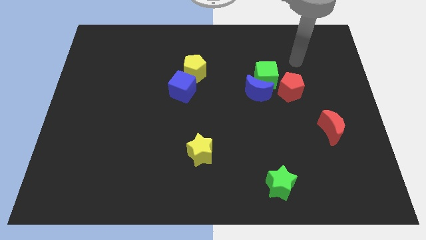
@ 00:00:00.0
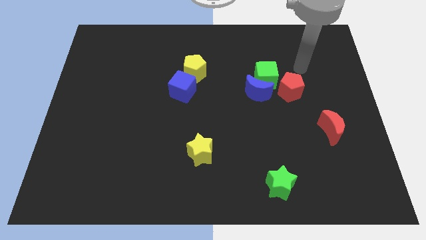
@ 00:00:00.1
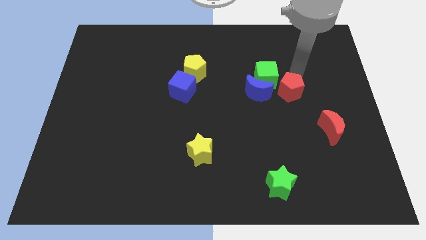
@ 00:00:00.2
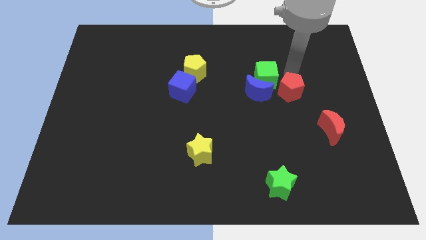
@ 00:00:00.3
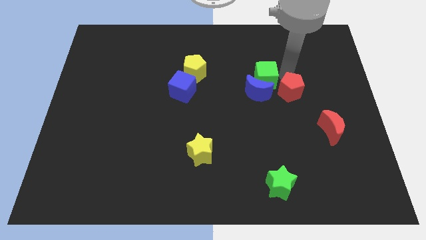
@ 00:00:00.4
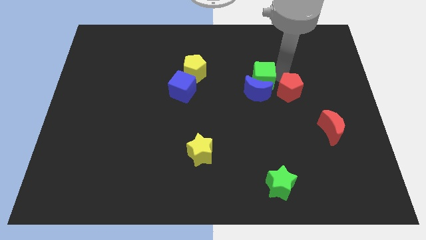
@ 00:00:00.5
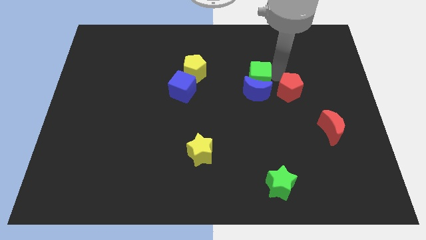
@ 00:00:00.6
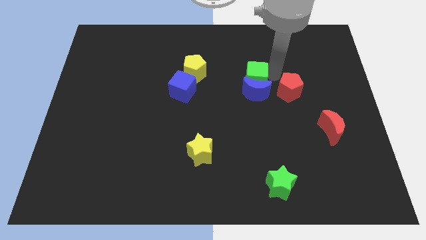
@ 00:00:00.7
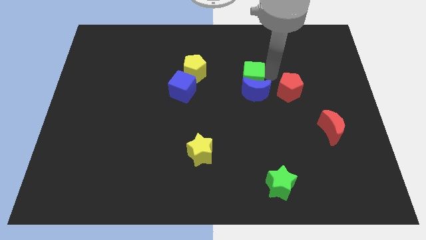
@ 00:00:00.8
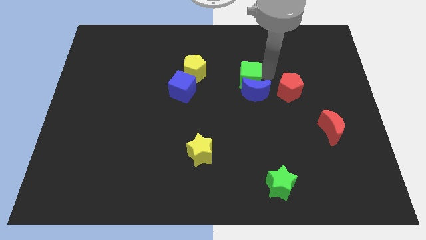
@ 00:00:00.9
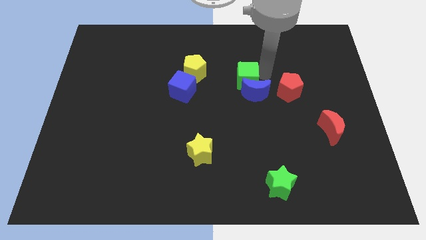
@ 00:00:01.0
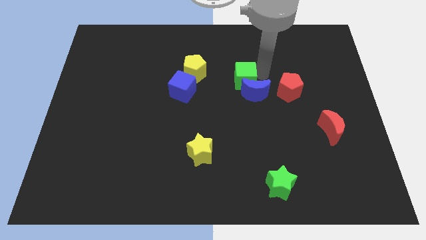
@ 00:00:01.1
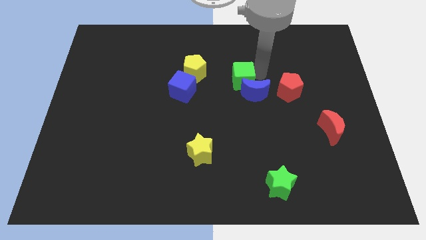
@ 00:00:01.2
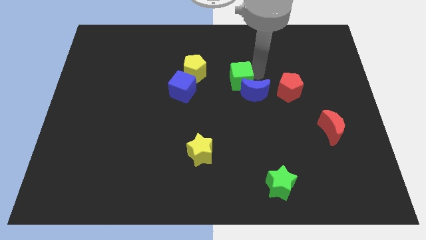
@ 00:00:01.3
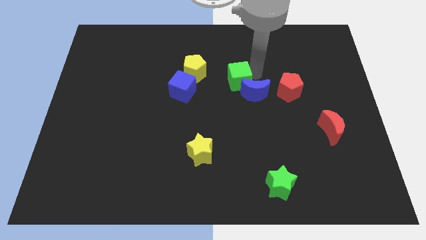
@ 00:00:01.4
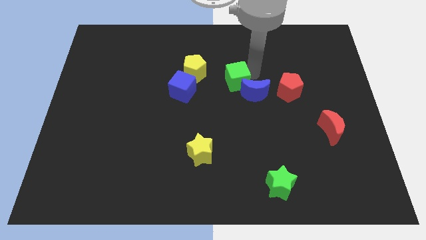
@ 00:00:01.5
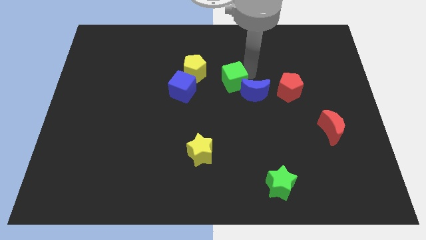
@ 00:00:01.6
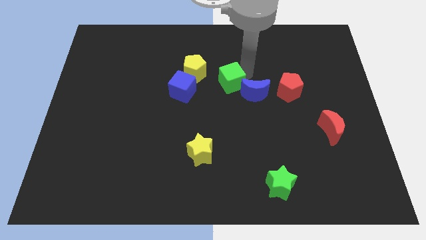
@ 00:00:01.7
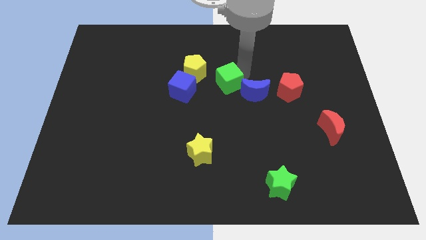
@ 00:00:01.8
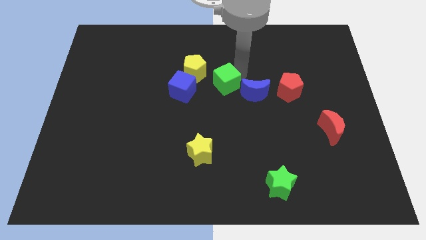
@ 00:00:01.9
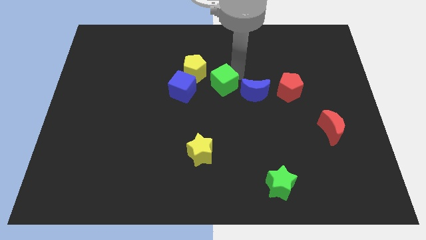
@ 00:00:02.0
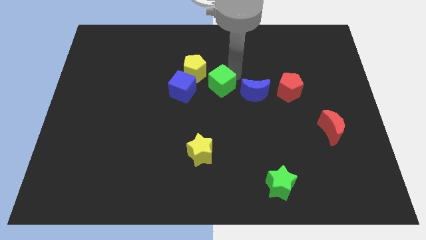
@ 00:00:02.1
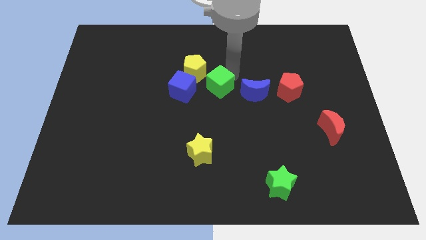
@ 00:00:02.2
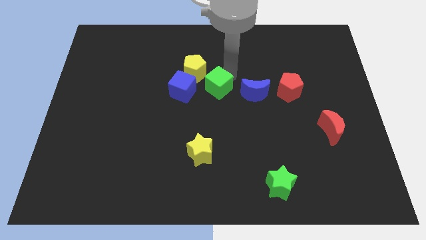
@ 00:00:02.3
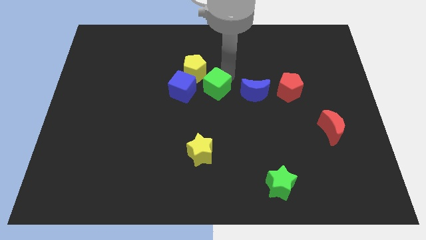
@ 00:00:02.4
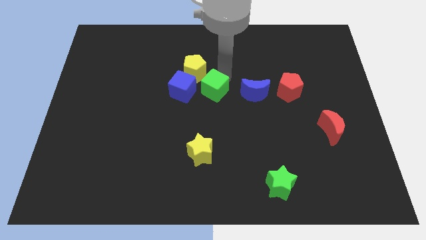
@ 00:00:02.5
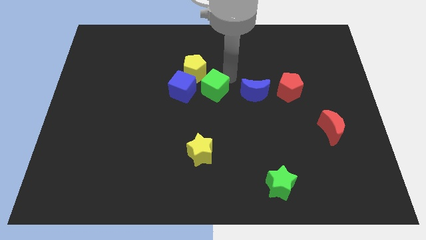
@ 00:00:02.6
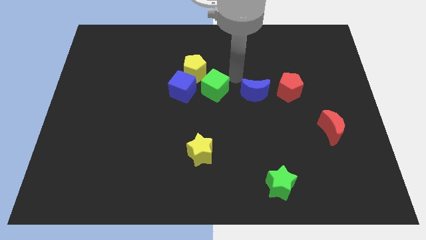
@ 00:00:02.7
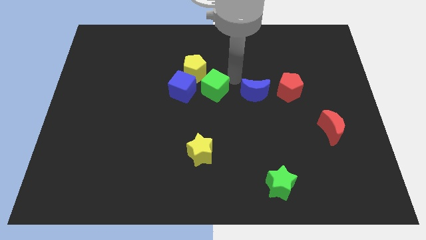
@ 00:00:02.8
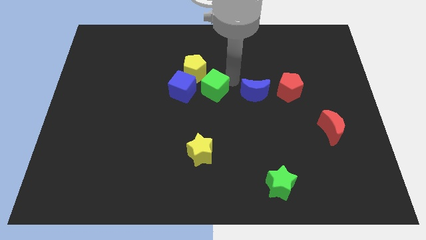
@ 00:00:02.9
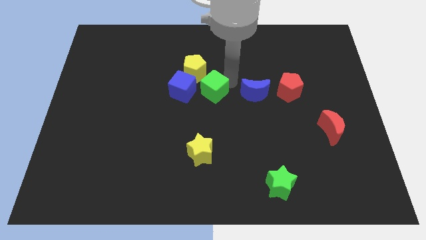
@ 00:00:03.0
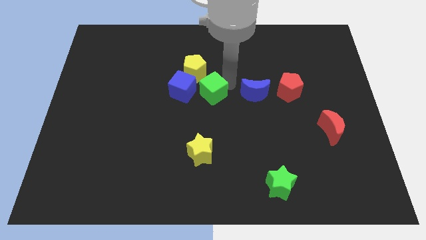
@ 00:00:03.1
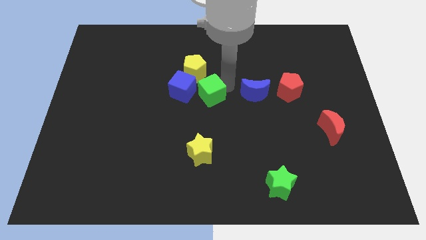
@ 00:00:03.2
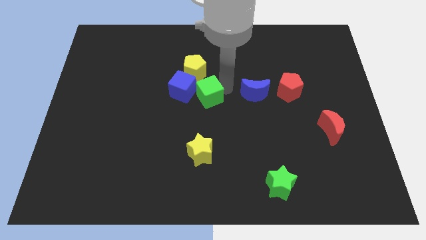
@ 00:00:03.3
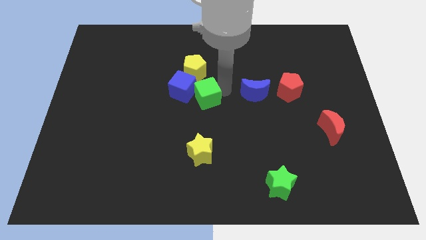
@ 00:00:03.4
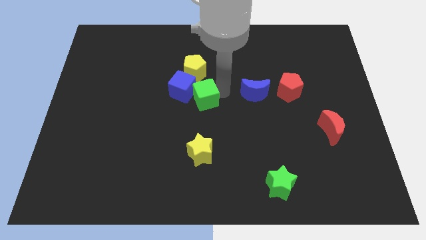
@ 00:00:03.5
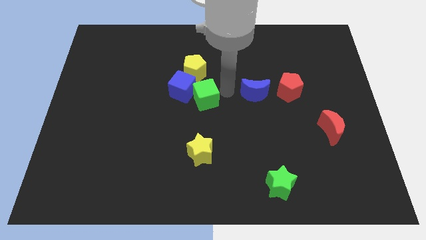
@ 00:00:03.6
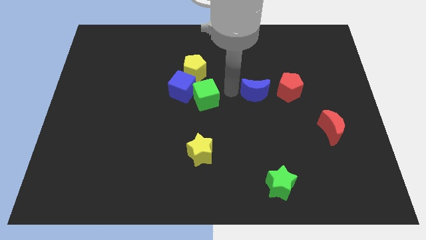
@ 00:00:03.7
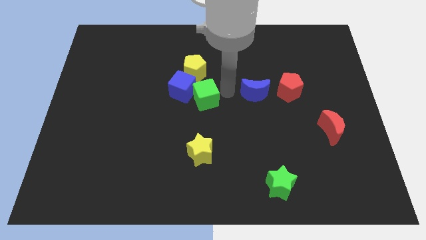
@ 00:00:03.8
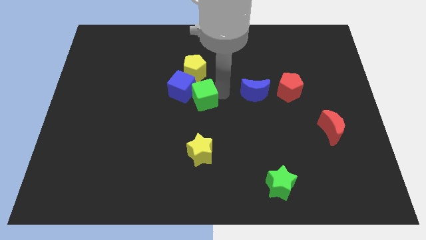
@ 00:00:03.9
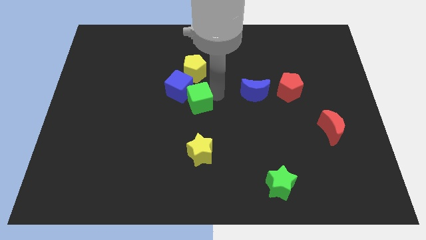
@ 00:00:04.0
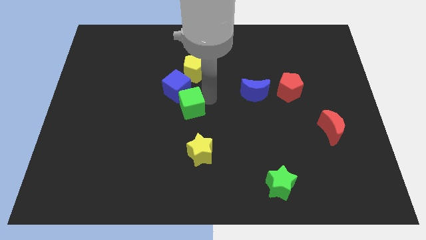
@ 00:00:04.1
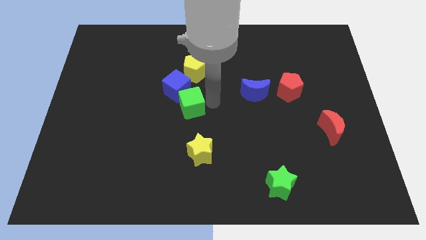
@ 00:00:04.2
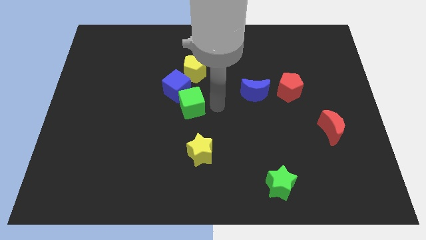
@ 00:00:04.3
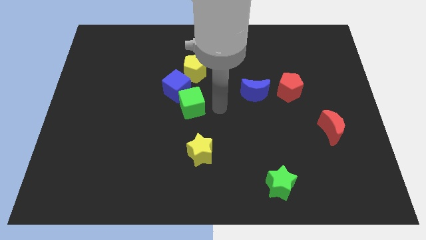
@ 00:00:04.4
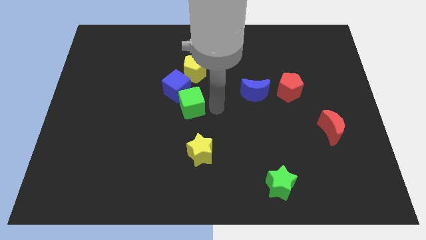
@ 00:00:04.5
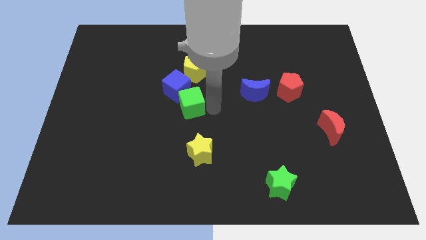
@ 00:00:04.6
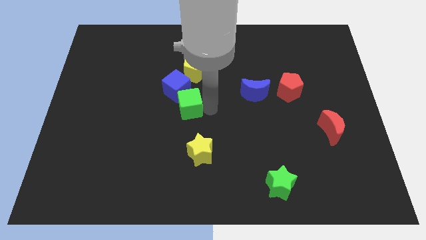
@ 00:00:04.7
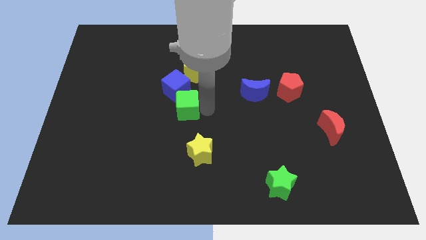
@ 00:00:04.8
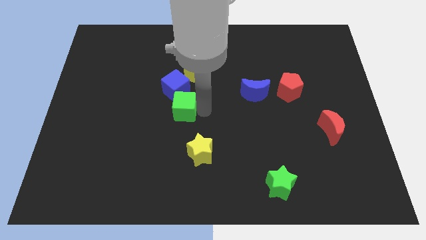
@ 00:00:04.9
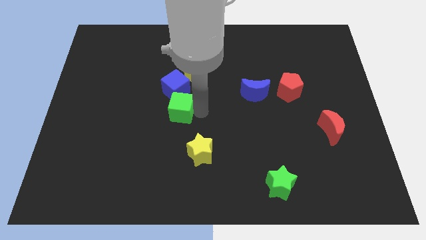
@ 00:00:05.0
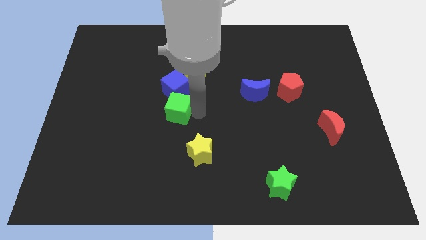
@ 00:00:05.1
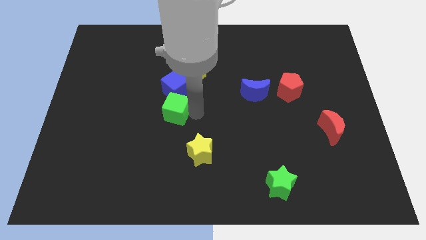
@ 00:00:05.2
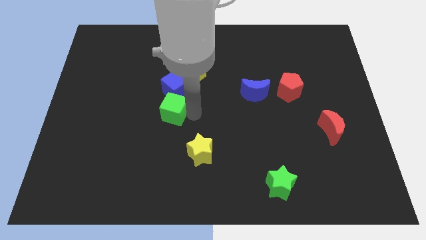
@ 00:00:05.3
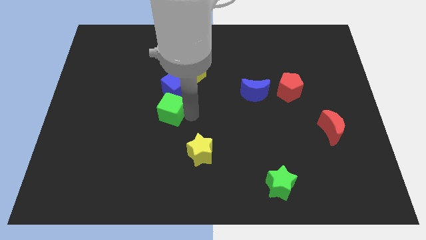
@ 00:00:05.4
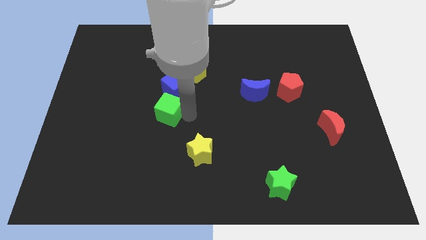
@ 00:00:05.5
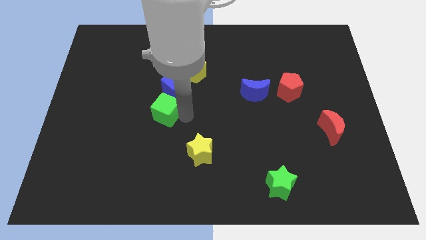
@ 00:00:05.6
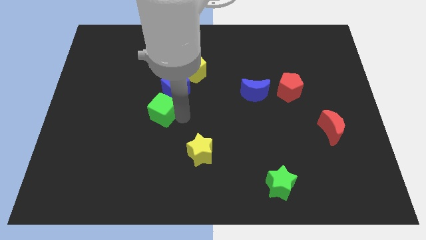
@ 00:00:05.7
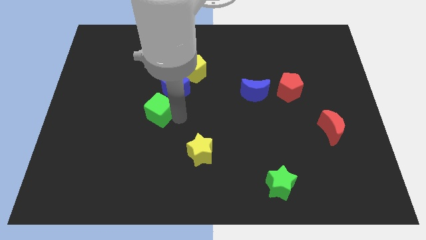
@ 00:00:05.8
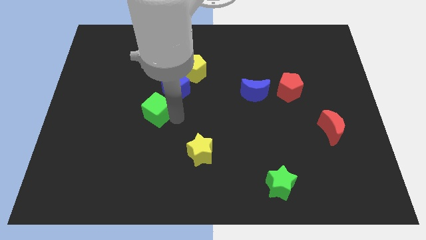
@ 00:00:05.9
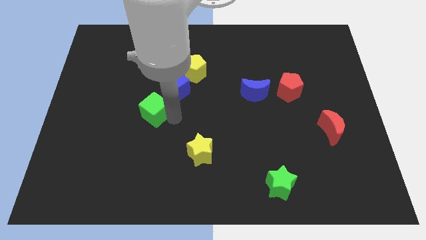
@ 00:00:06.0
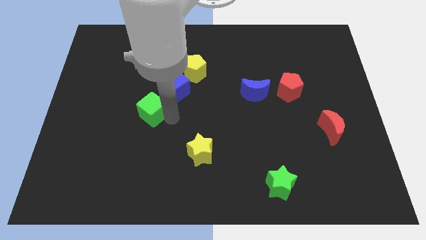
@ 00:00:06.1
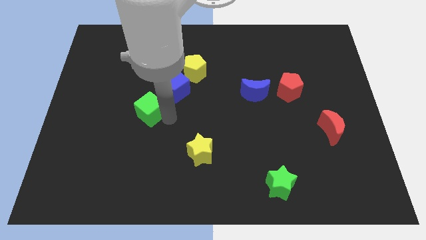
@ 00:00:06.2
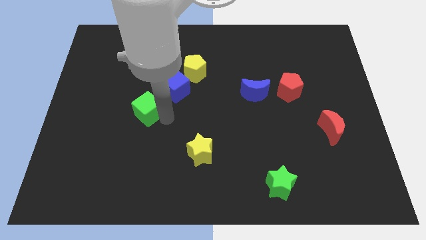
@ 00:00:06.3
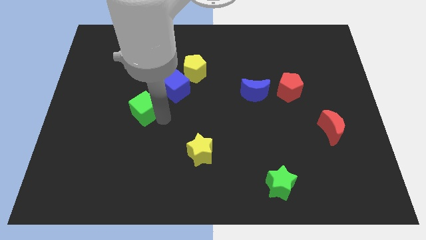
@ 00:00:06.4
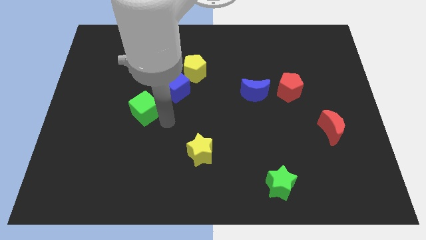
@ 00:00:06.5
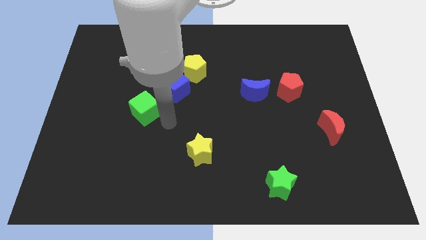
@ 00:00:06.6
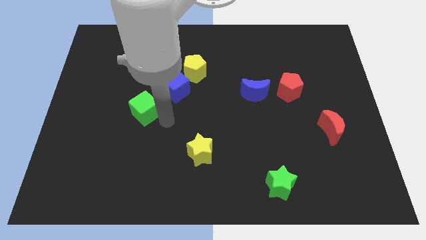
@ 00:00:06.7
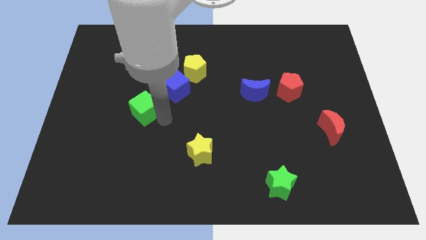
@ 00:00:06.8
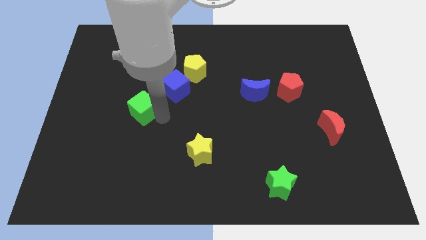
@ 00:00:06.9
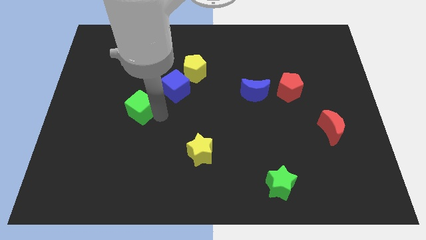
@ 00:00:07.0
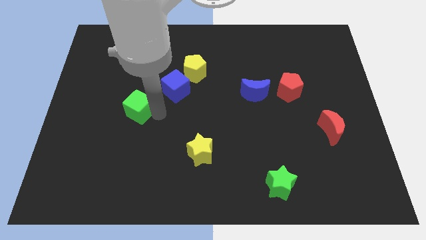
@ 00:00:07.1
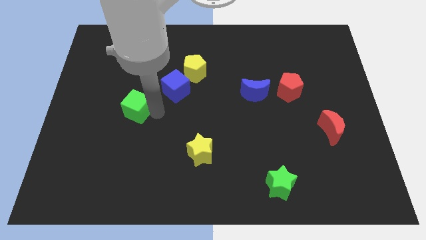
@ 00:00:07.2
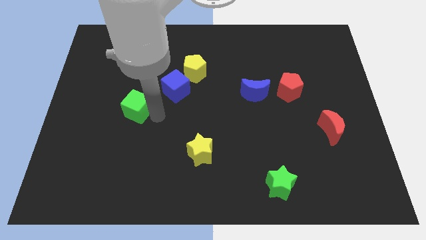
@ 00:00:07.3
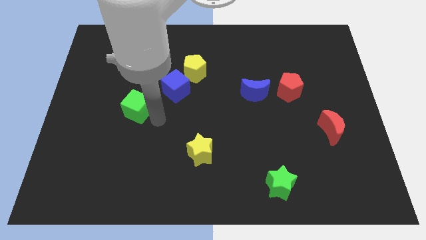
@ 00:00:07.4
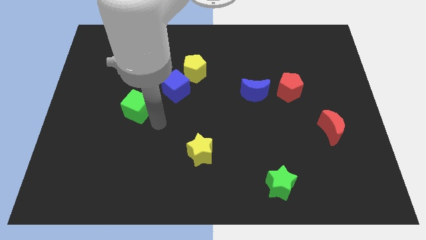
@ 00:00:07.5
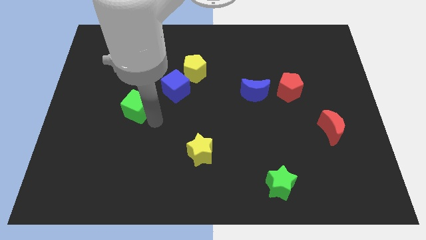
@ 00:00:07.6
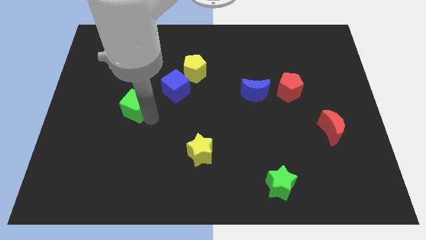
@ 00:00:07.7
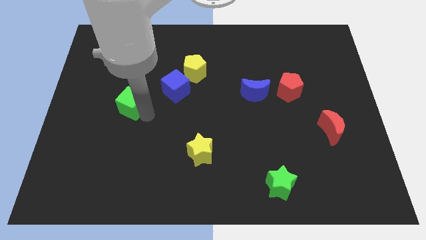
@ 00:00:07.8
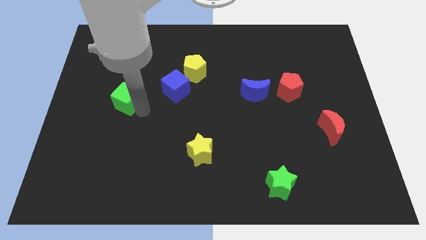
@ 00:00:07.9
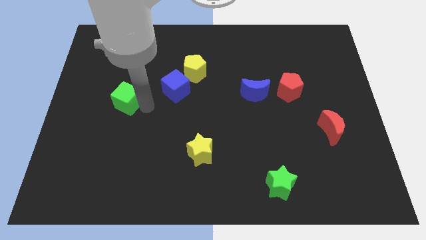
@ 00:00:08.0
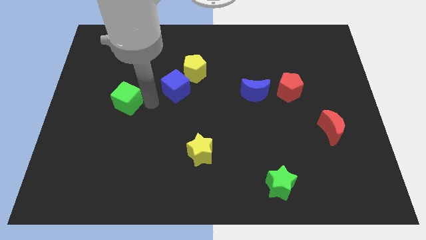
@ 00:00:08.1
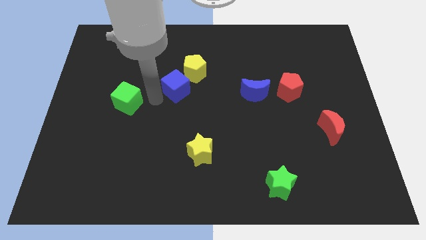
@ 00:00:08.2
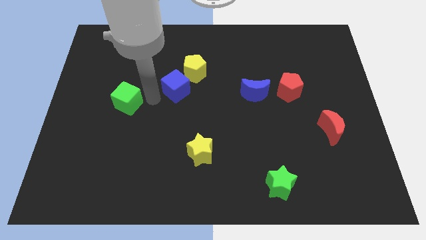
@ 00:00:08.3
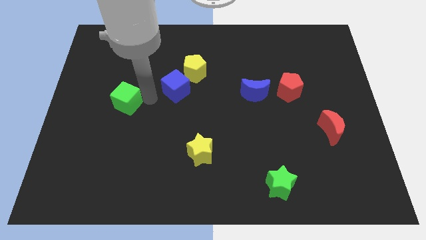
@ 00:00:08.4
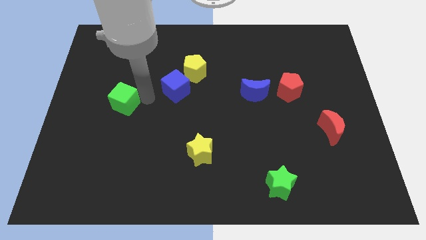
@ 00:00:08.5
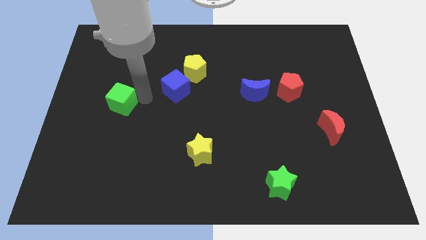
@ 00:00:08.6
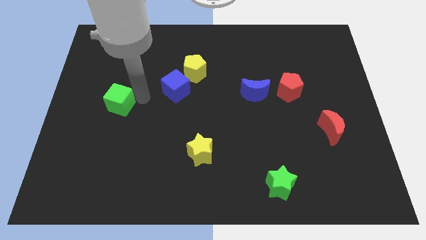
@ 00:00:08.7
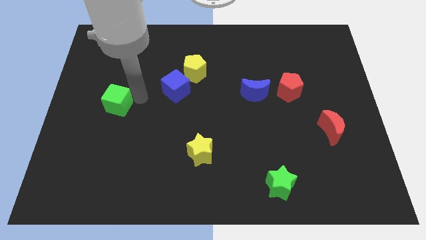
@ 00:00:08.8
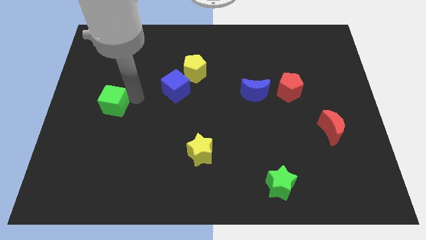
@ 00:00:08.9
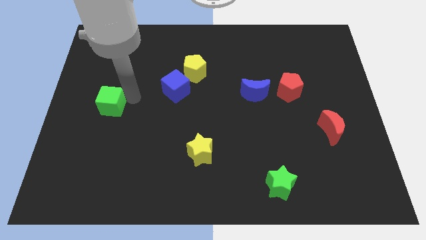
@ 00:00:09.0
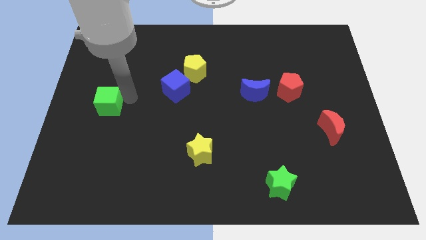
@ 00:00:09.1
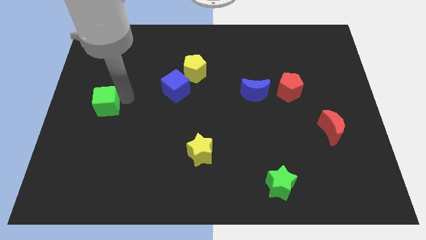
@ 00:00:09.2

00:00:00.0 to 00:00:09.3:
push the green cube to the left side
